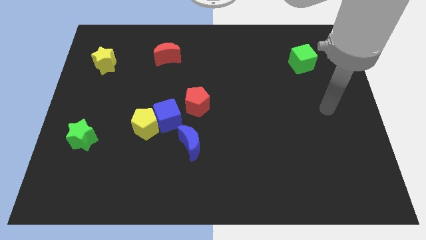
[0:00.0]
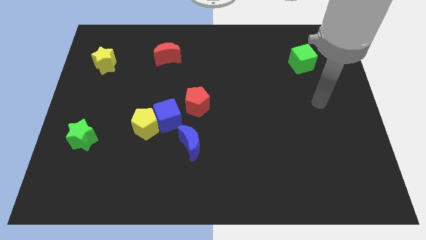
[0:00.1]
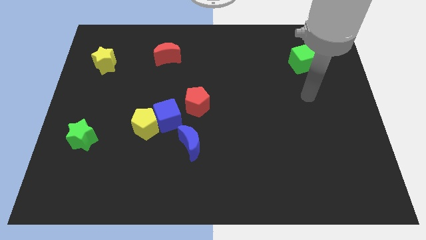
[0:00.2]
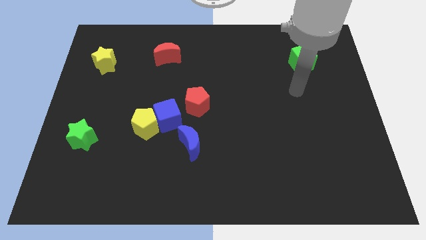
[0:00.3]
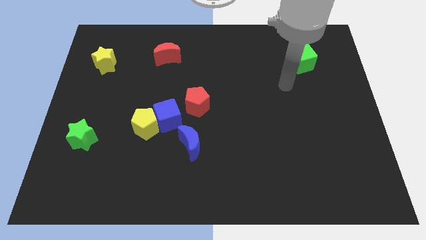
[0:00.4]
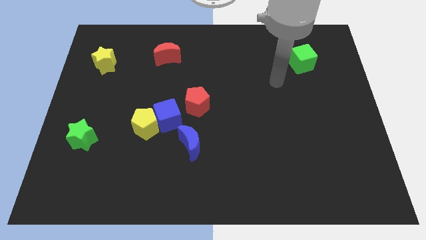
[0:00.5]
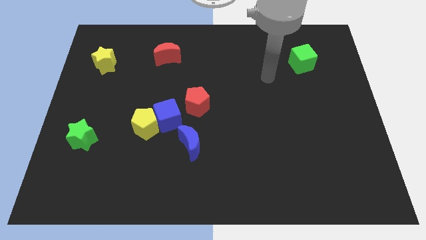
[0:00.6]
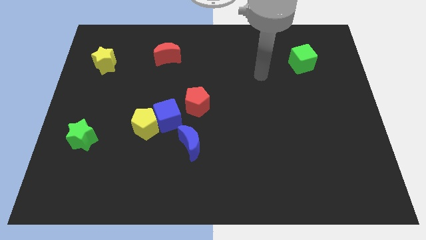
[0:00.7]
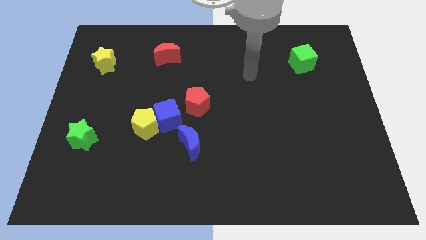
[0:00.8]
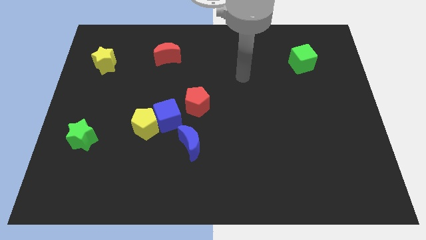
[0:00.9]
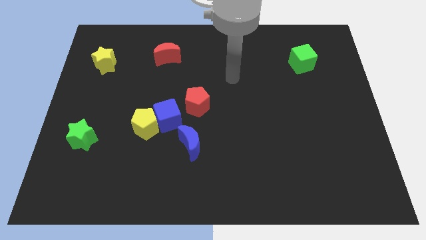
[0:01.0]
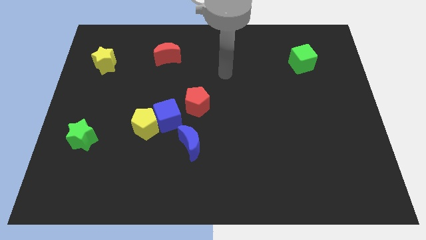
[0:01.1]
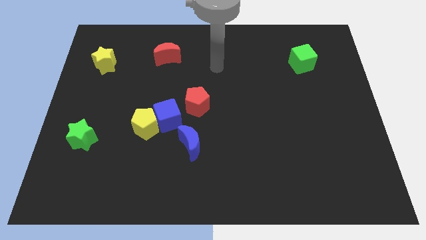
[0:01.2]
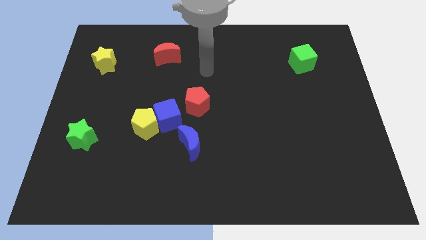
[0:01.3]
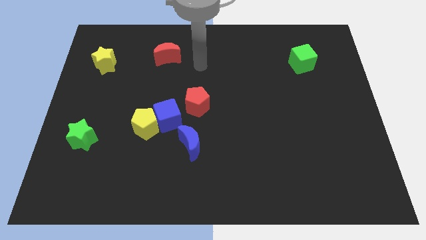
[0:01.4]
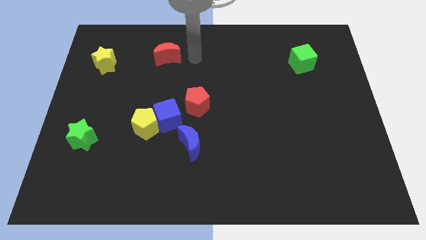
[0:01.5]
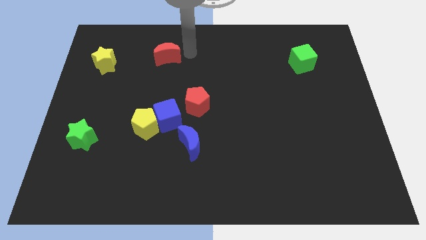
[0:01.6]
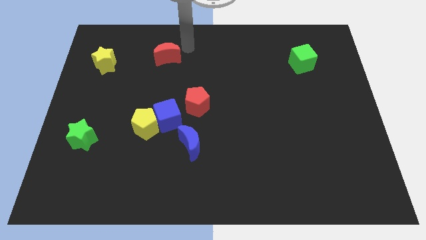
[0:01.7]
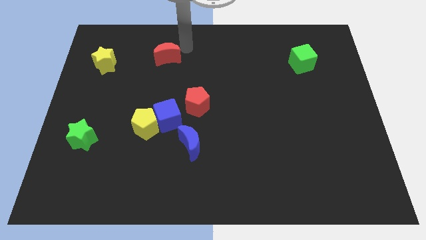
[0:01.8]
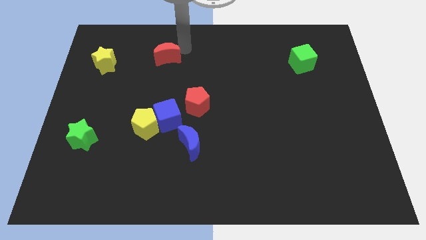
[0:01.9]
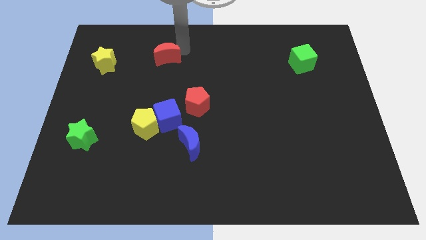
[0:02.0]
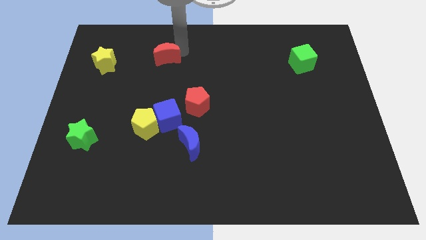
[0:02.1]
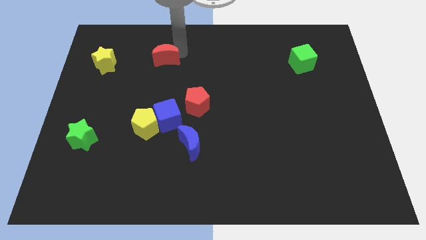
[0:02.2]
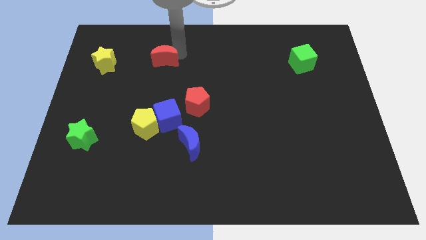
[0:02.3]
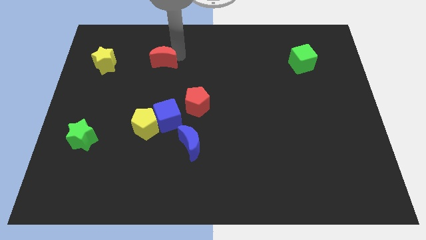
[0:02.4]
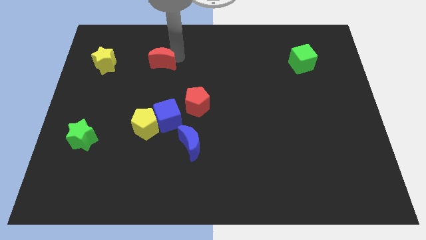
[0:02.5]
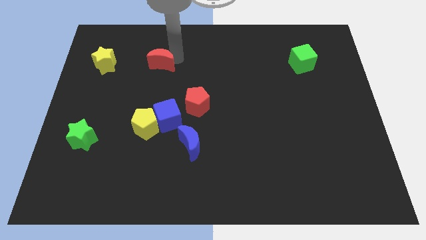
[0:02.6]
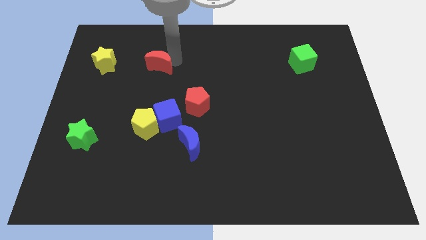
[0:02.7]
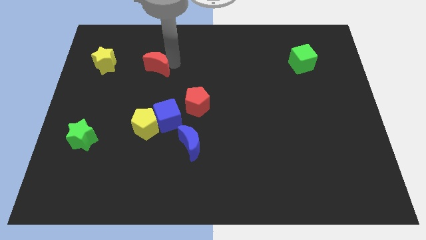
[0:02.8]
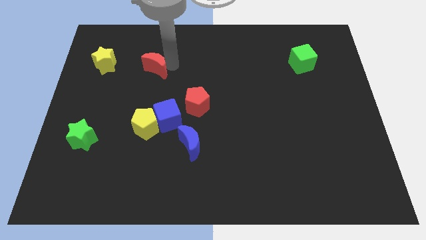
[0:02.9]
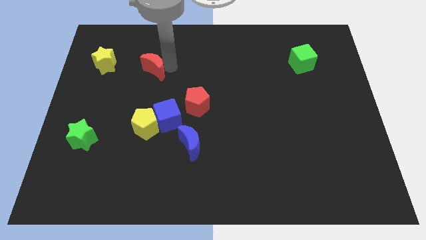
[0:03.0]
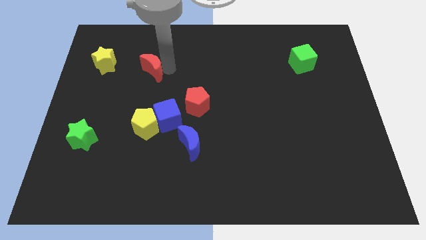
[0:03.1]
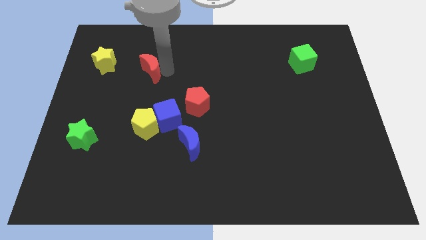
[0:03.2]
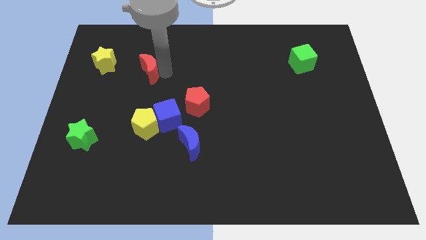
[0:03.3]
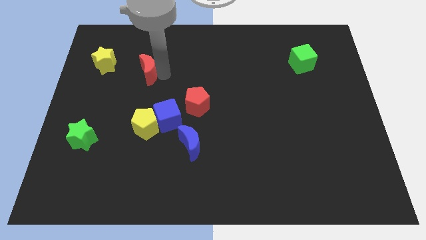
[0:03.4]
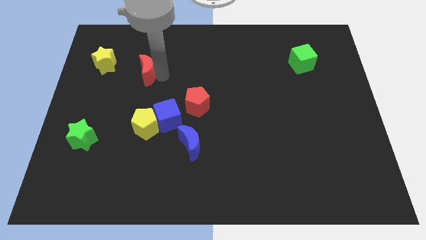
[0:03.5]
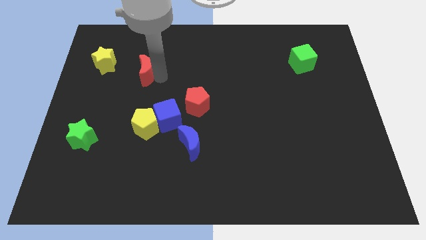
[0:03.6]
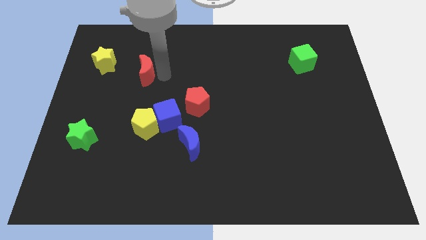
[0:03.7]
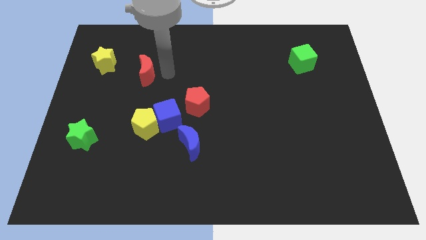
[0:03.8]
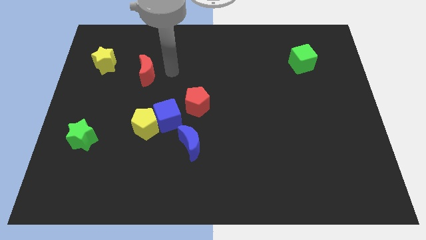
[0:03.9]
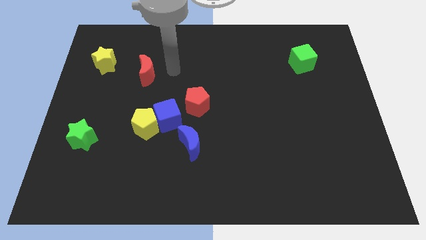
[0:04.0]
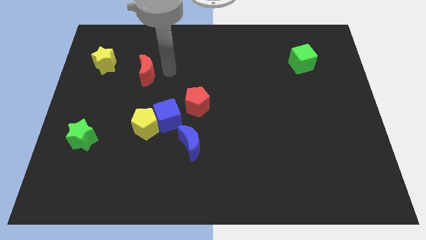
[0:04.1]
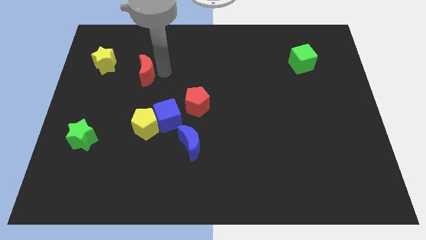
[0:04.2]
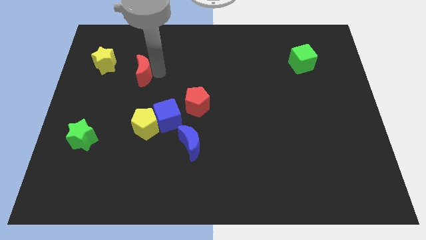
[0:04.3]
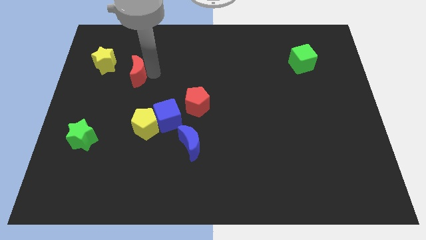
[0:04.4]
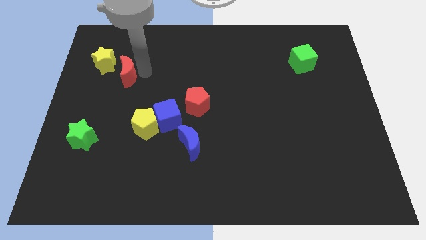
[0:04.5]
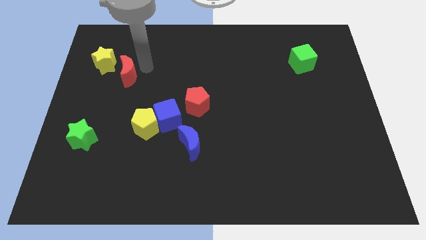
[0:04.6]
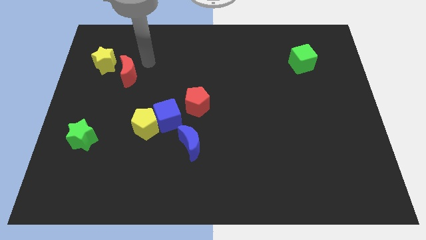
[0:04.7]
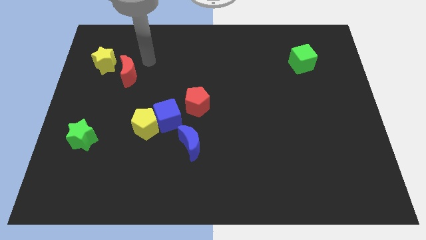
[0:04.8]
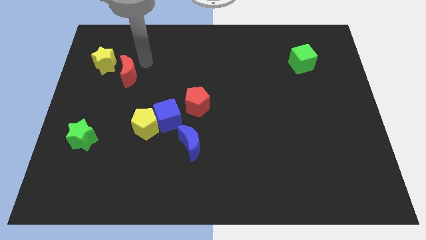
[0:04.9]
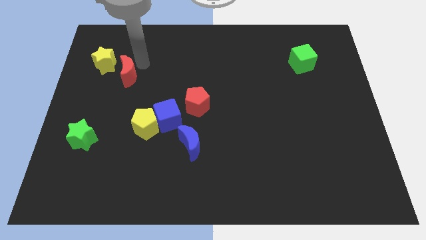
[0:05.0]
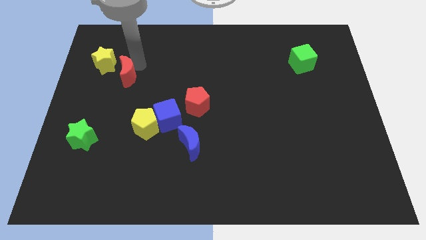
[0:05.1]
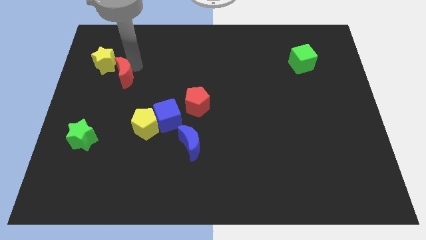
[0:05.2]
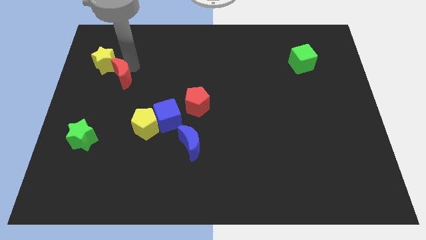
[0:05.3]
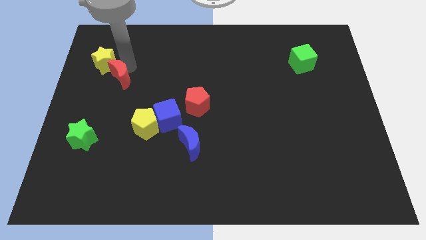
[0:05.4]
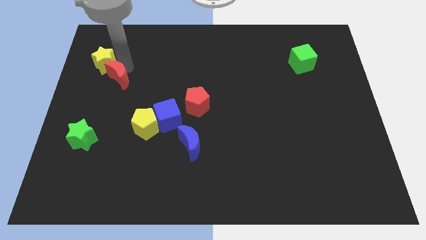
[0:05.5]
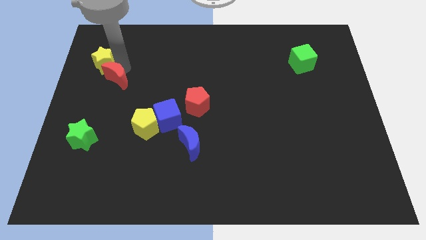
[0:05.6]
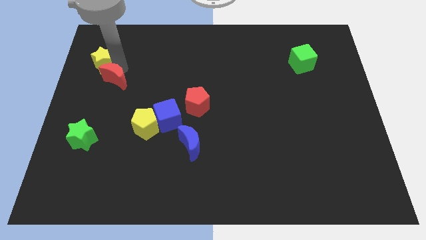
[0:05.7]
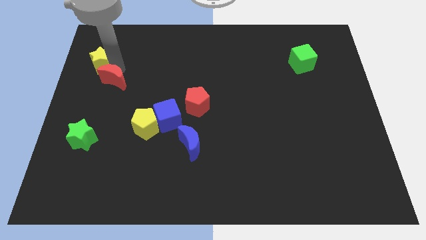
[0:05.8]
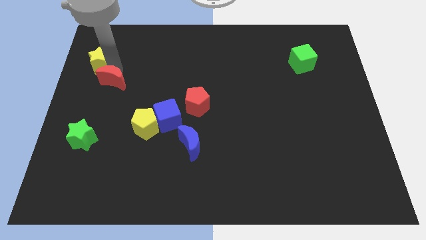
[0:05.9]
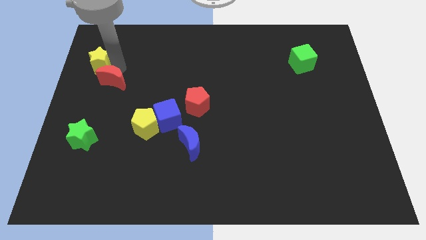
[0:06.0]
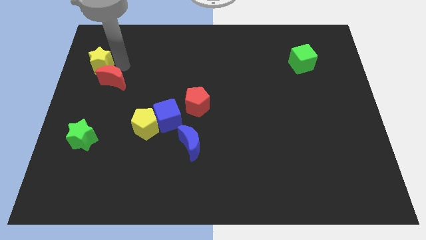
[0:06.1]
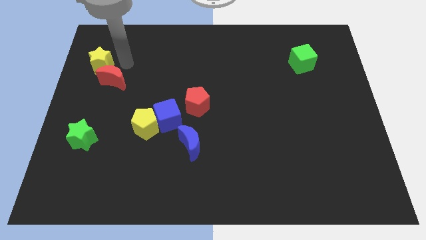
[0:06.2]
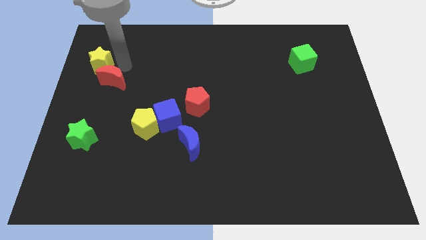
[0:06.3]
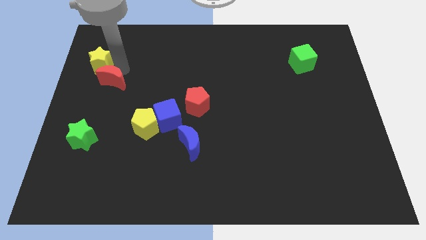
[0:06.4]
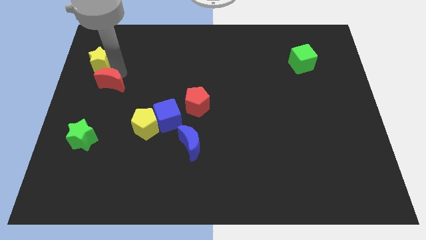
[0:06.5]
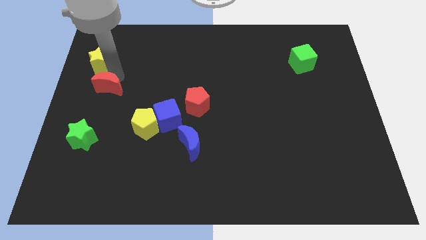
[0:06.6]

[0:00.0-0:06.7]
slide the red moon above the green star
